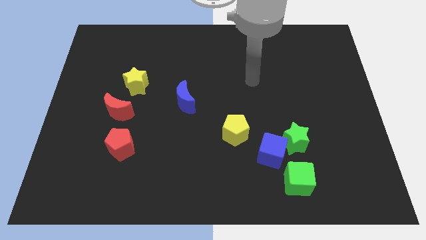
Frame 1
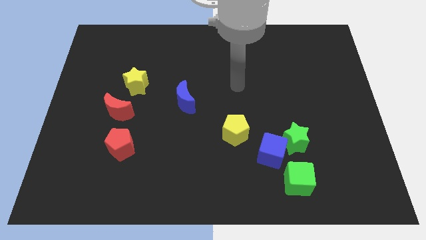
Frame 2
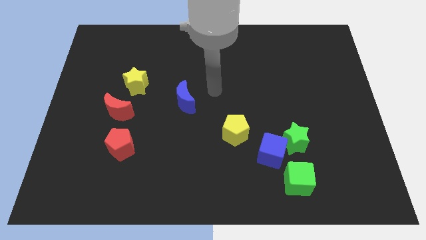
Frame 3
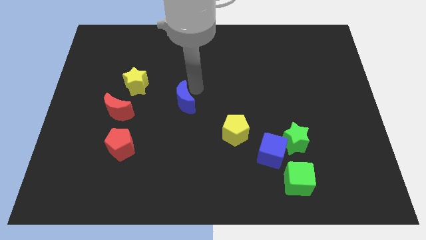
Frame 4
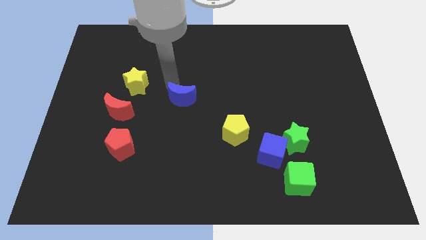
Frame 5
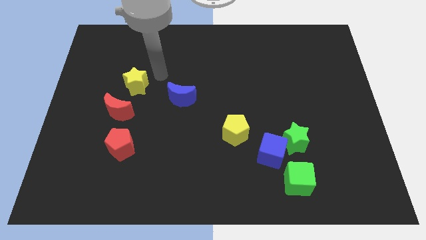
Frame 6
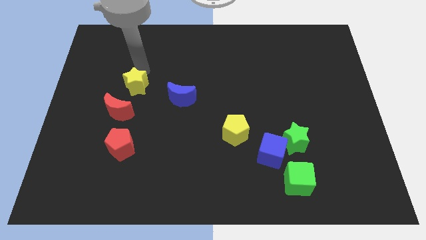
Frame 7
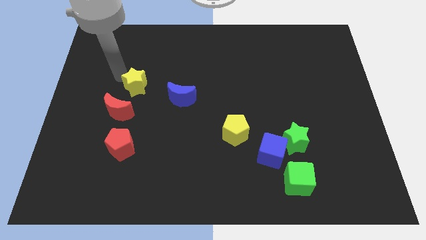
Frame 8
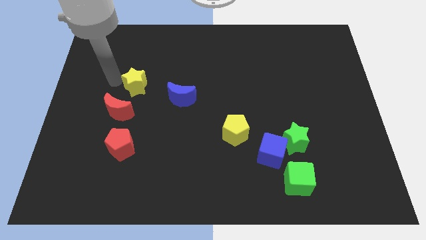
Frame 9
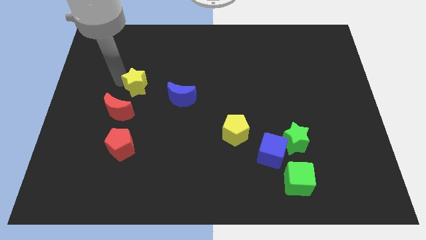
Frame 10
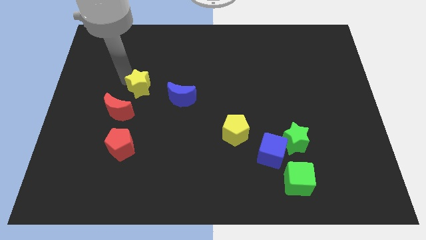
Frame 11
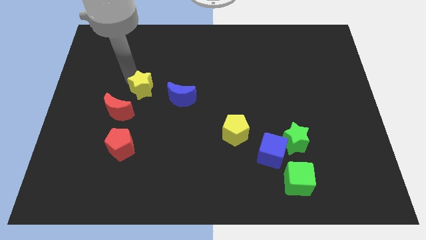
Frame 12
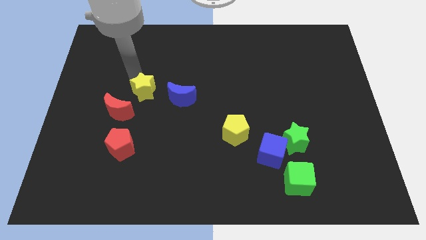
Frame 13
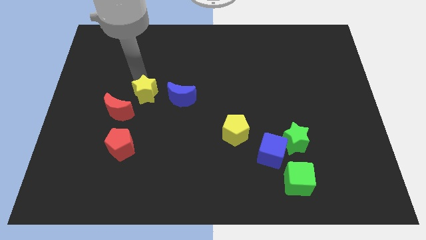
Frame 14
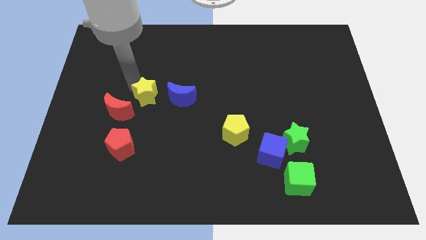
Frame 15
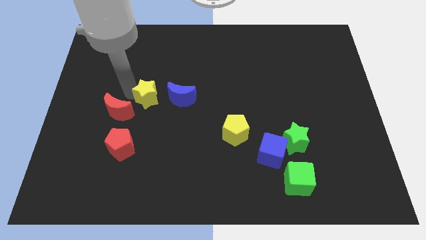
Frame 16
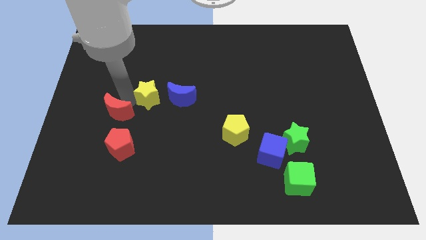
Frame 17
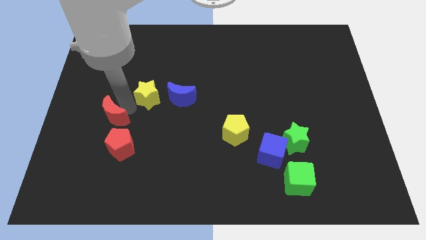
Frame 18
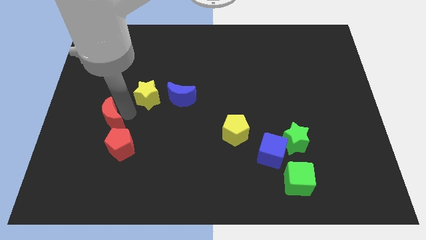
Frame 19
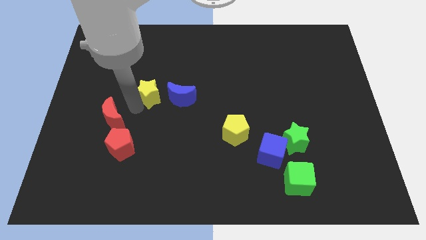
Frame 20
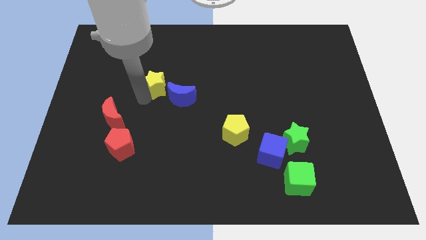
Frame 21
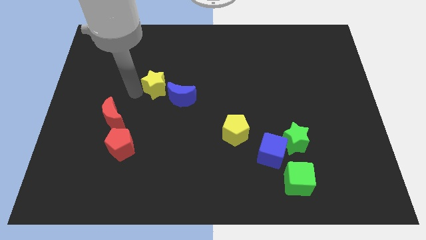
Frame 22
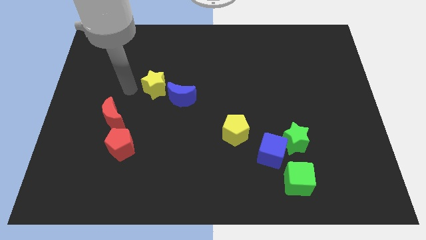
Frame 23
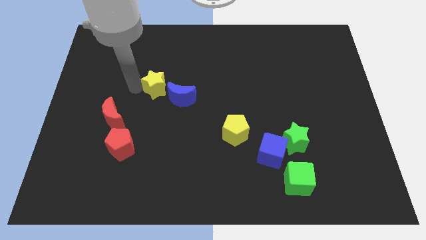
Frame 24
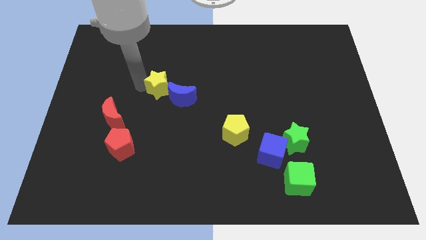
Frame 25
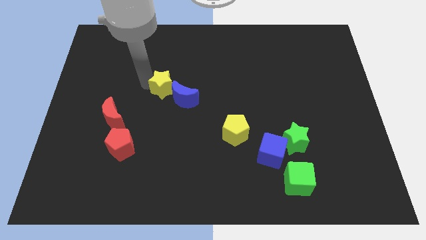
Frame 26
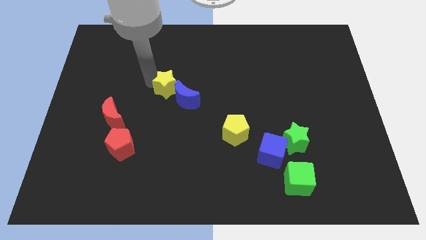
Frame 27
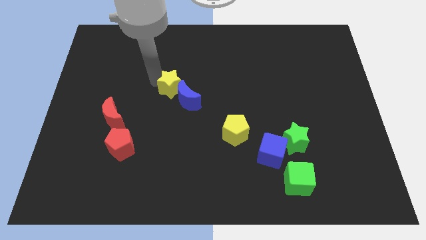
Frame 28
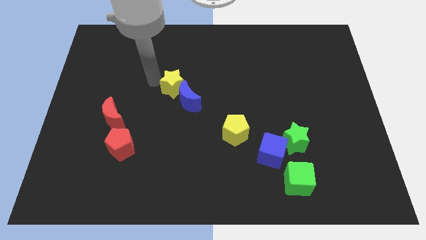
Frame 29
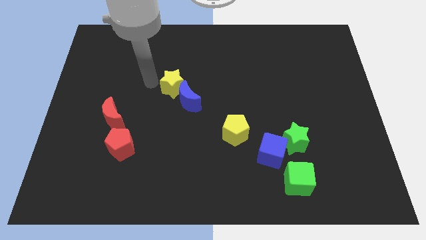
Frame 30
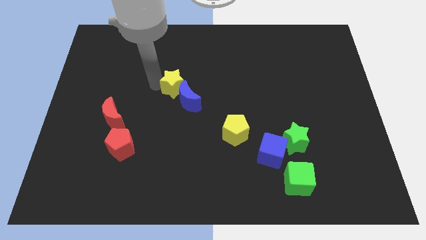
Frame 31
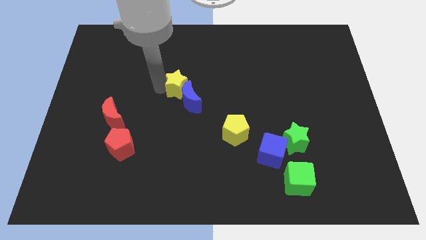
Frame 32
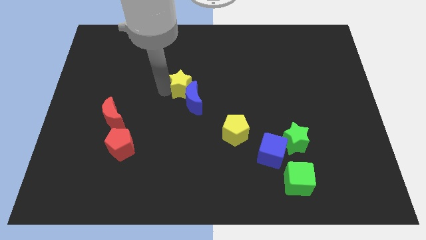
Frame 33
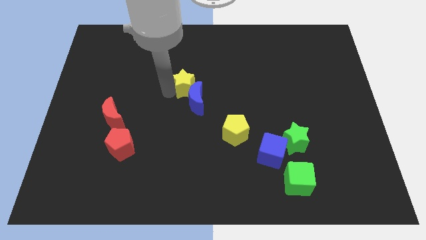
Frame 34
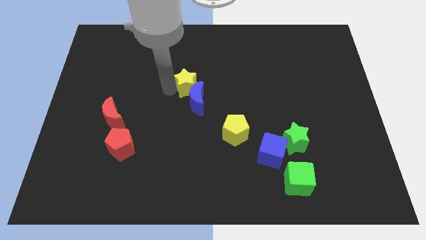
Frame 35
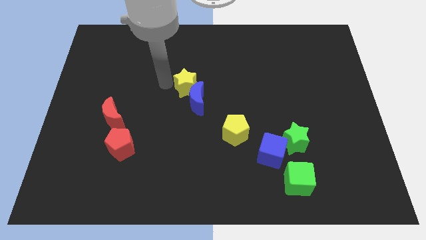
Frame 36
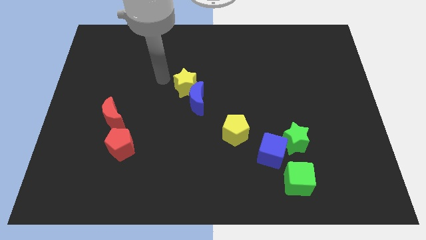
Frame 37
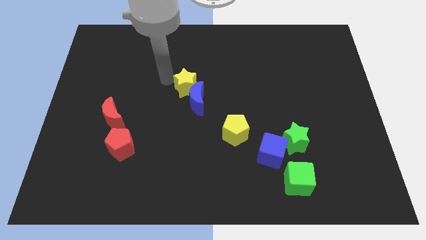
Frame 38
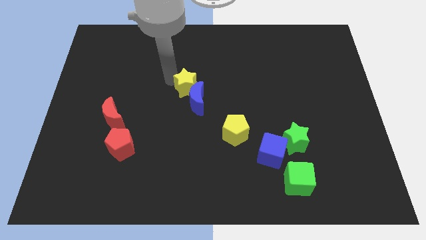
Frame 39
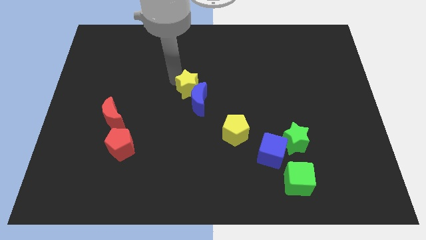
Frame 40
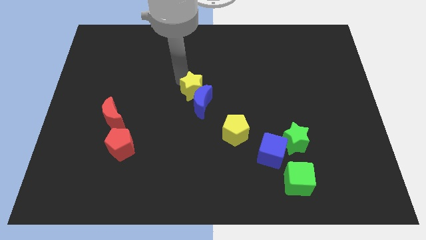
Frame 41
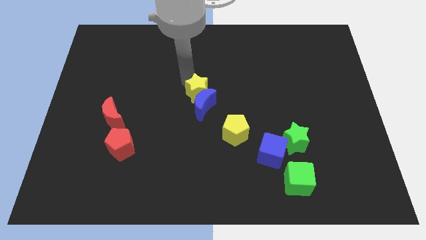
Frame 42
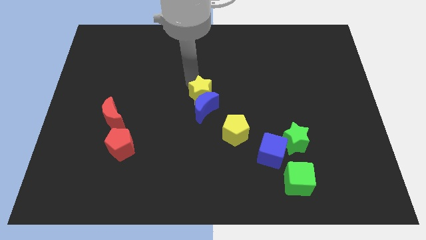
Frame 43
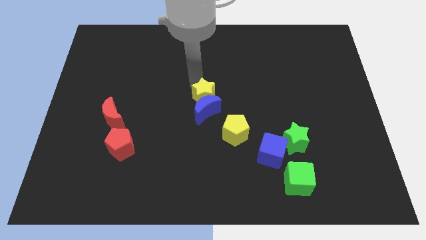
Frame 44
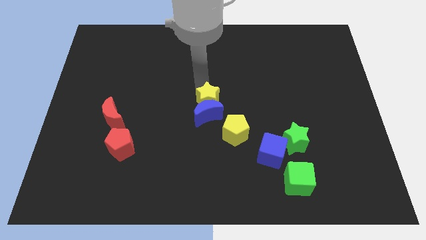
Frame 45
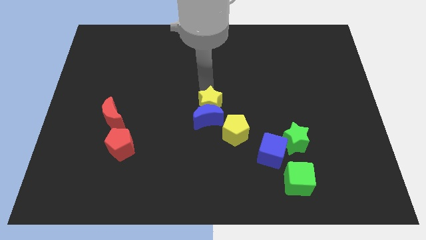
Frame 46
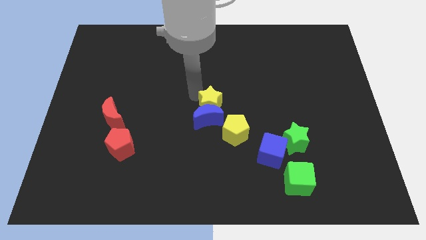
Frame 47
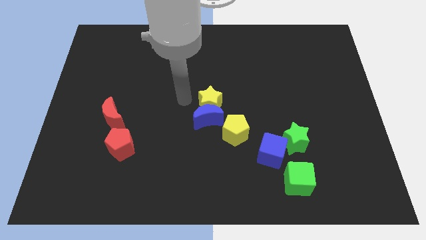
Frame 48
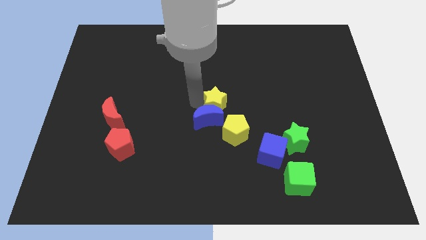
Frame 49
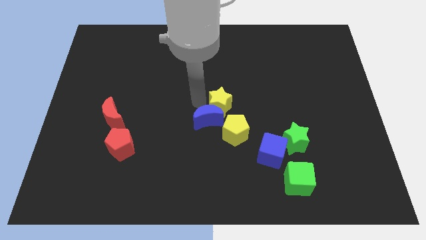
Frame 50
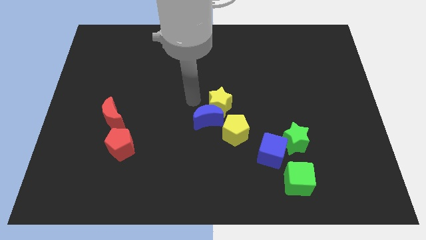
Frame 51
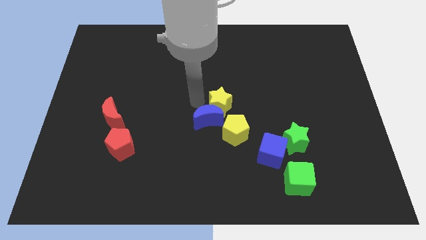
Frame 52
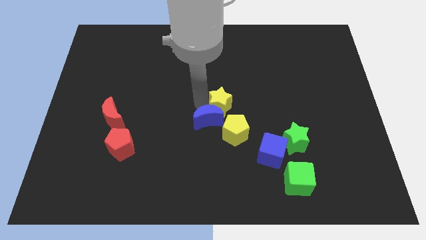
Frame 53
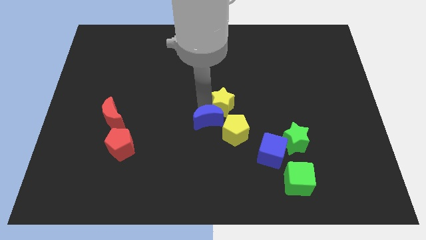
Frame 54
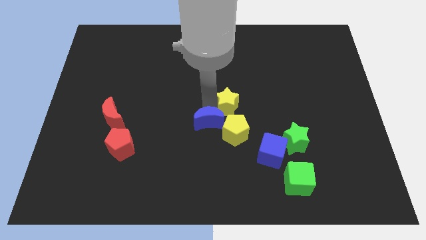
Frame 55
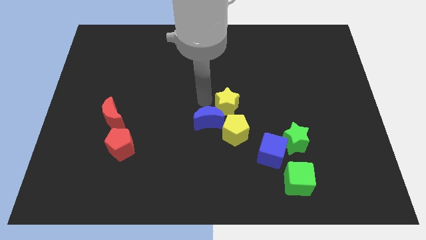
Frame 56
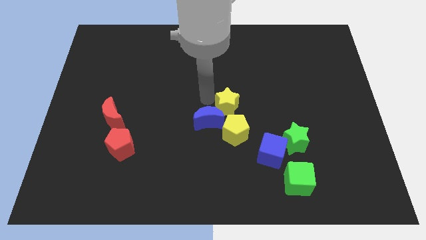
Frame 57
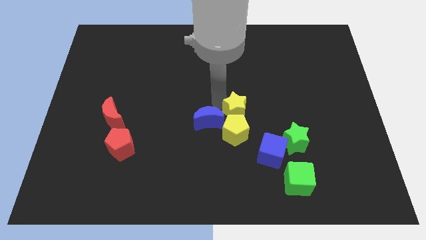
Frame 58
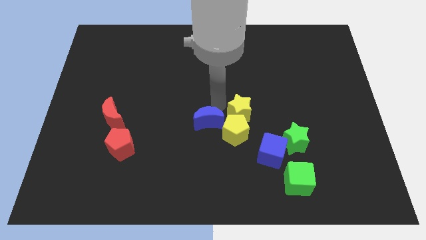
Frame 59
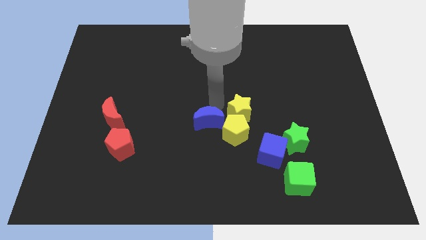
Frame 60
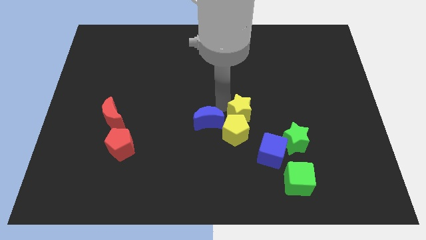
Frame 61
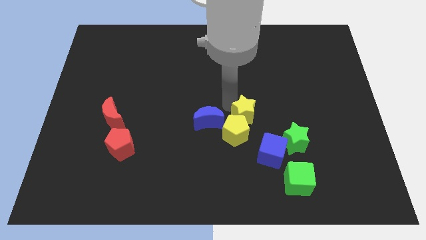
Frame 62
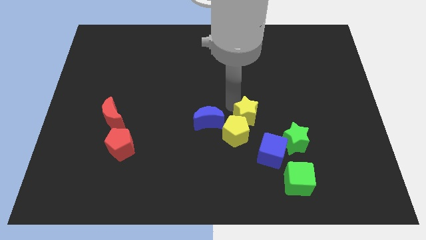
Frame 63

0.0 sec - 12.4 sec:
slide the yellow star diagonally up and to the left of the green star

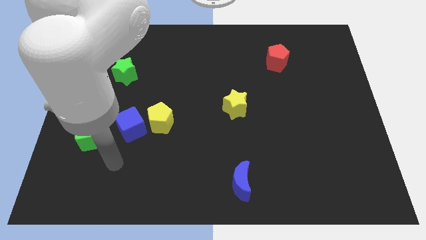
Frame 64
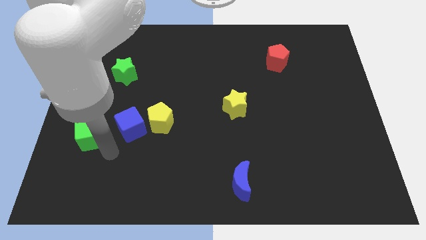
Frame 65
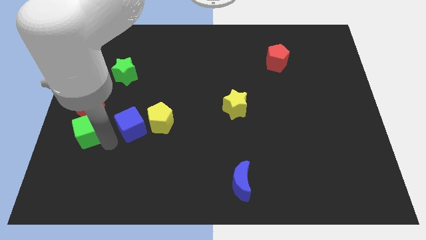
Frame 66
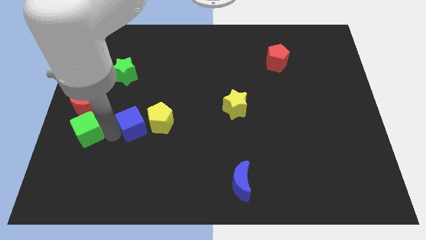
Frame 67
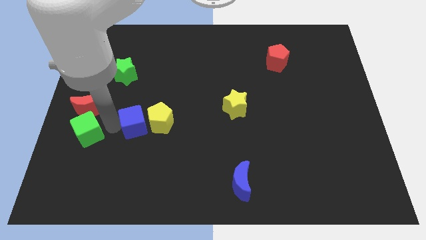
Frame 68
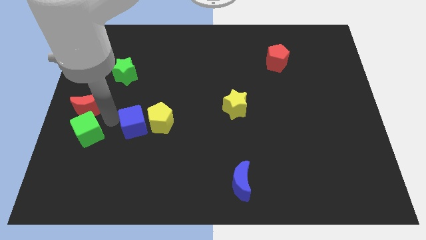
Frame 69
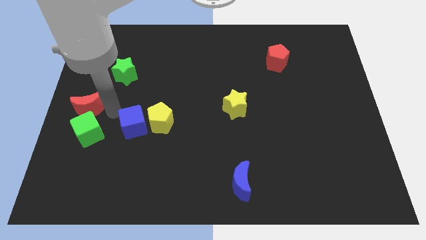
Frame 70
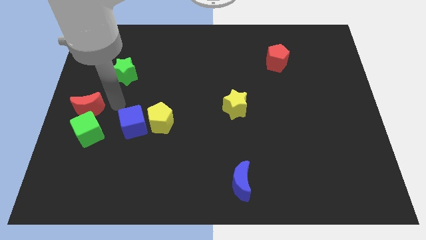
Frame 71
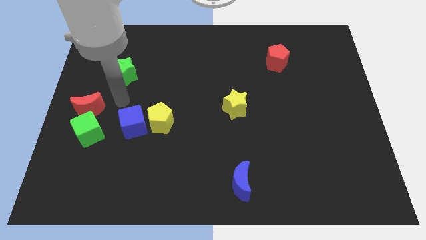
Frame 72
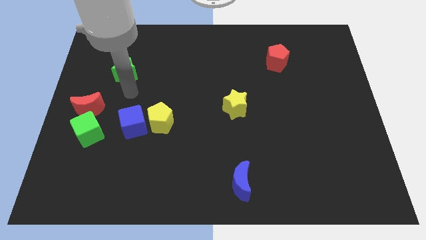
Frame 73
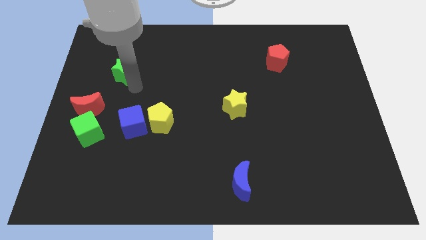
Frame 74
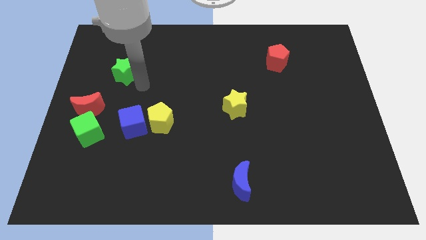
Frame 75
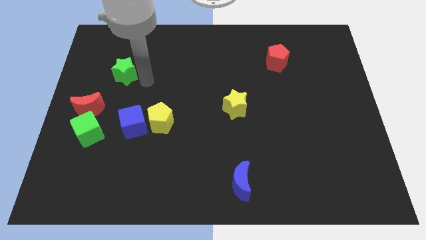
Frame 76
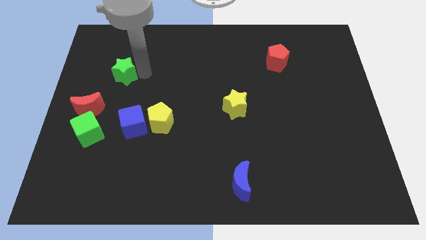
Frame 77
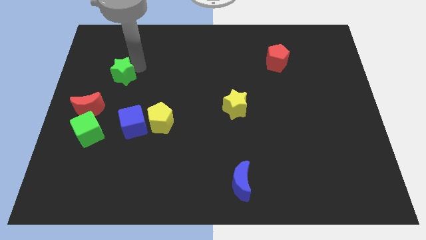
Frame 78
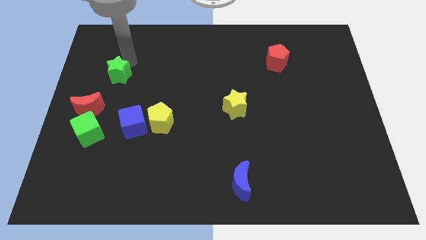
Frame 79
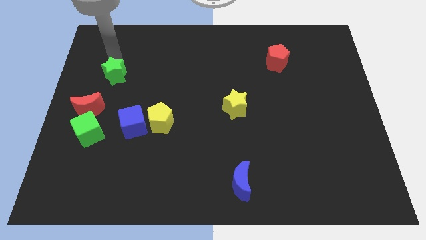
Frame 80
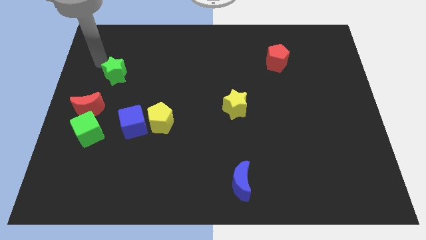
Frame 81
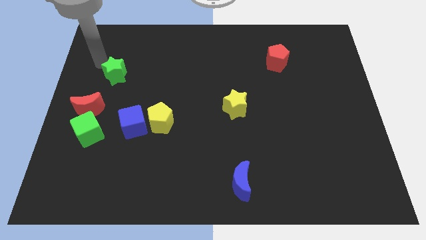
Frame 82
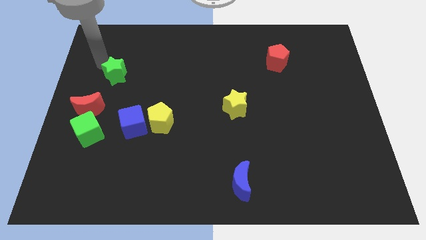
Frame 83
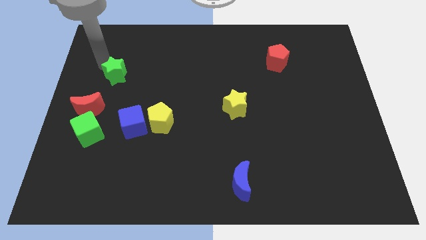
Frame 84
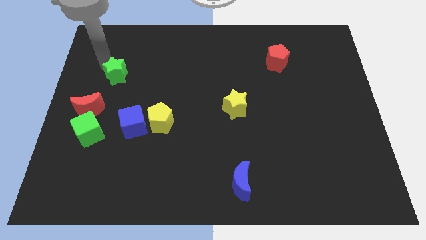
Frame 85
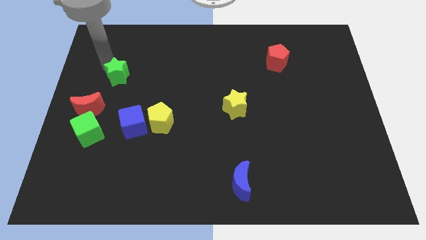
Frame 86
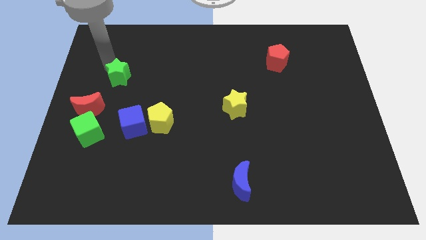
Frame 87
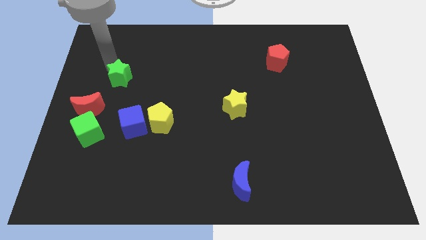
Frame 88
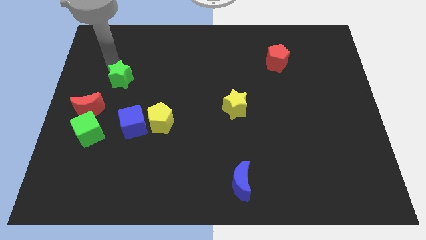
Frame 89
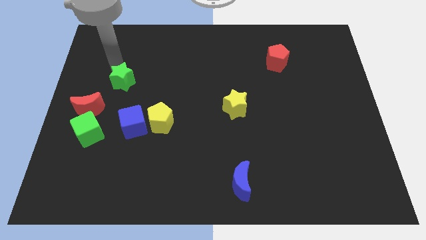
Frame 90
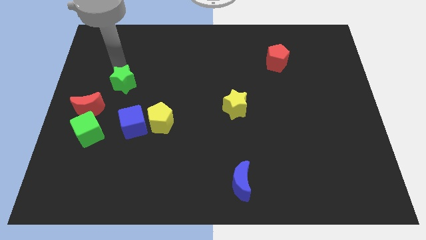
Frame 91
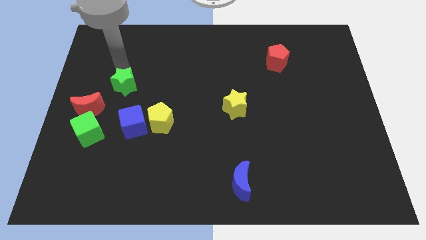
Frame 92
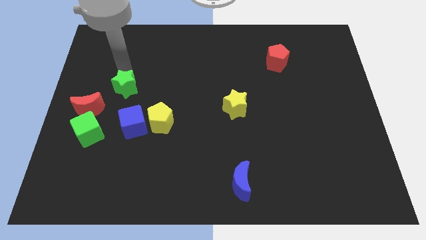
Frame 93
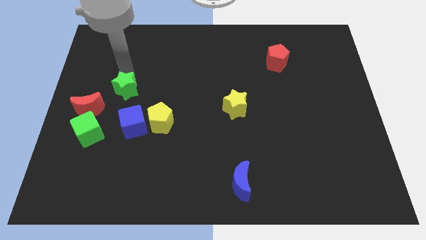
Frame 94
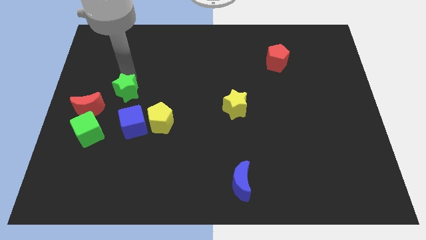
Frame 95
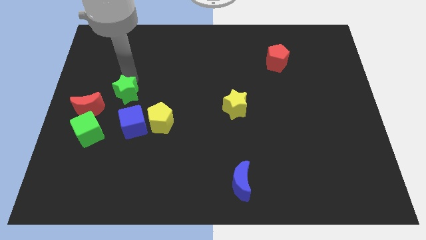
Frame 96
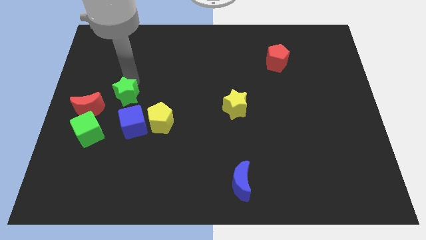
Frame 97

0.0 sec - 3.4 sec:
slide the green star right of the red moon
